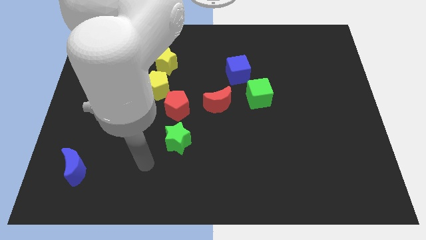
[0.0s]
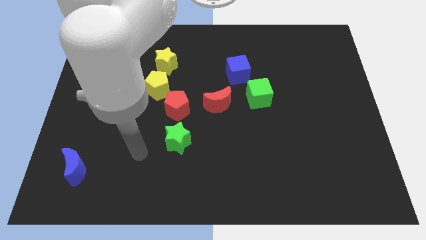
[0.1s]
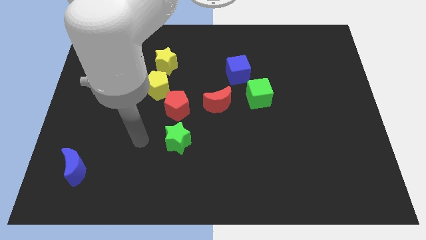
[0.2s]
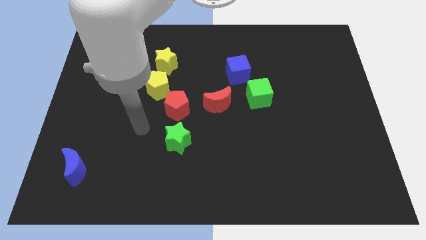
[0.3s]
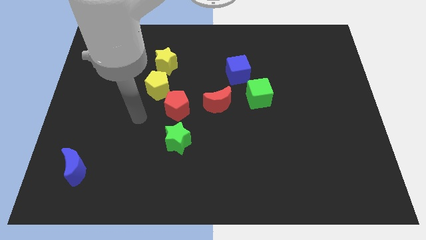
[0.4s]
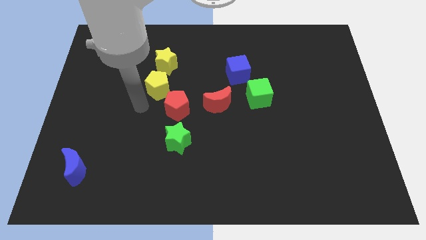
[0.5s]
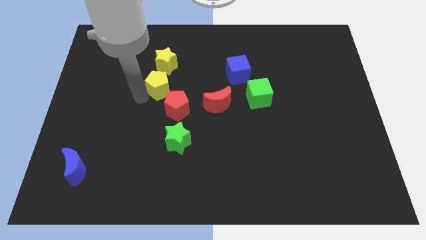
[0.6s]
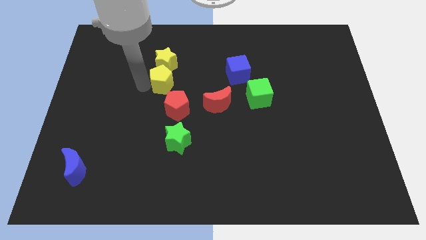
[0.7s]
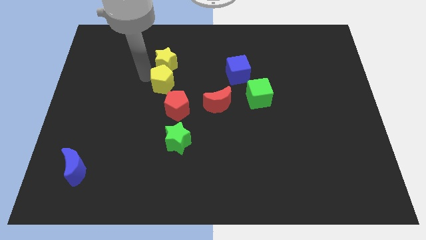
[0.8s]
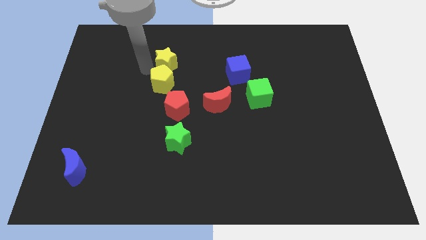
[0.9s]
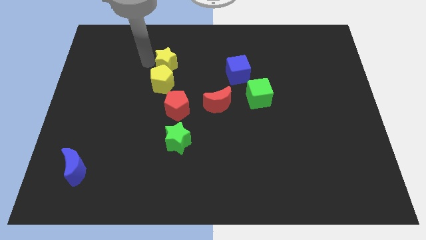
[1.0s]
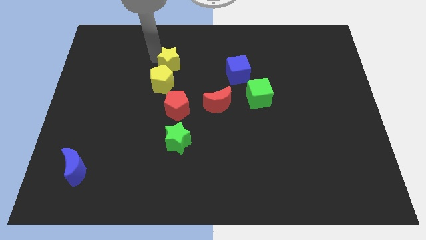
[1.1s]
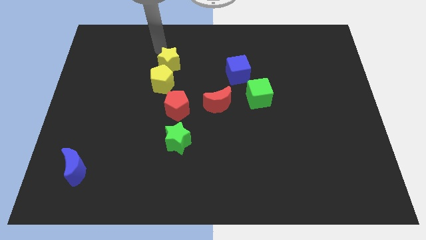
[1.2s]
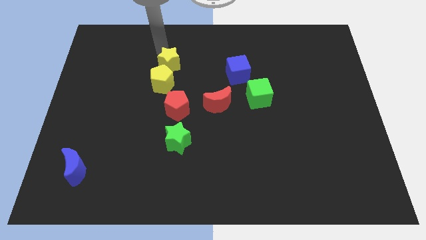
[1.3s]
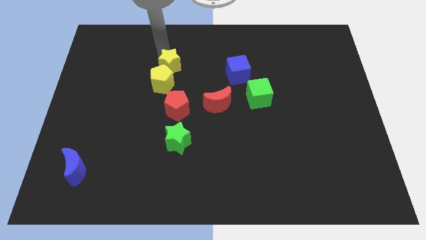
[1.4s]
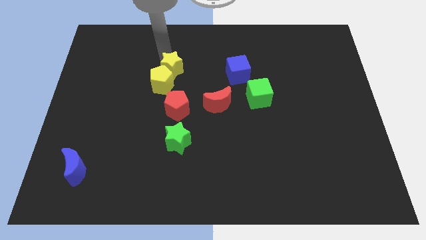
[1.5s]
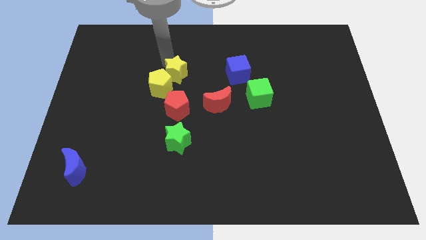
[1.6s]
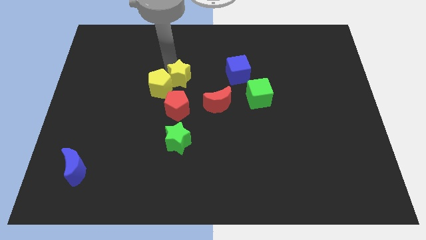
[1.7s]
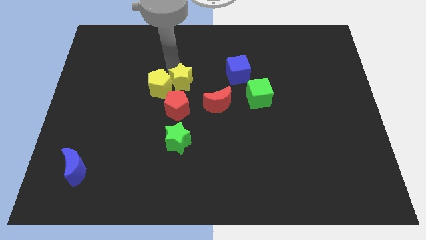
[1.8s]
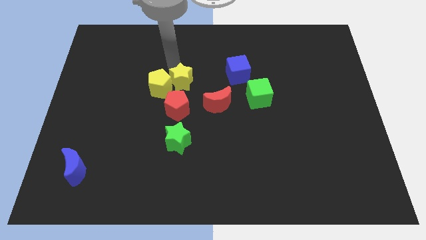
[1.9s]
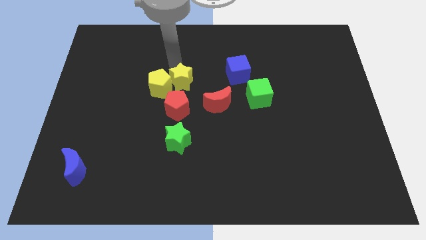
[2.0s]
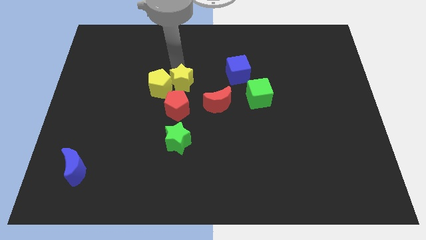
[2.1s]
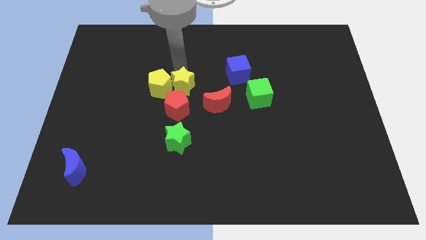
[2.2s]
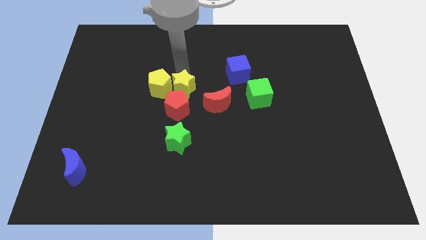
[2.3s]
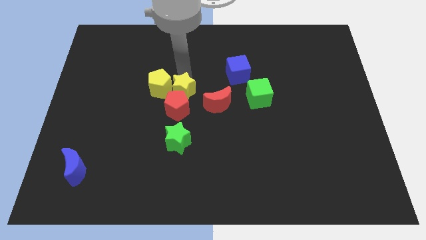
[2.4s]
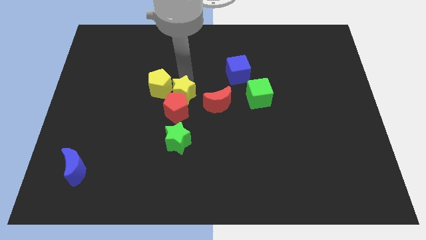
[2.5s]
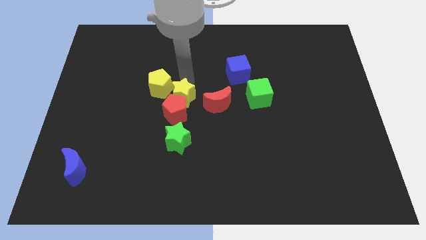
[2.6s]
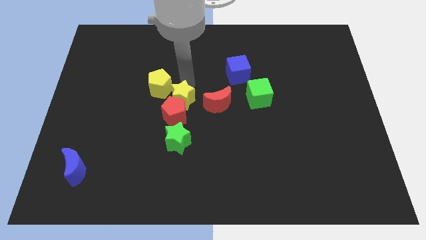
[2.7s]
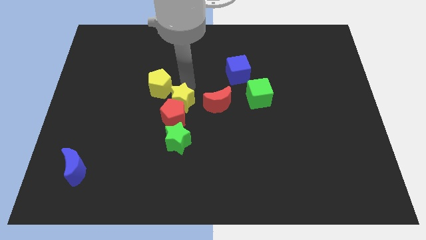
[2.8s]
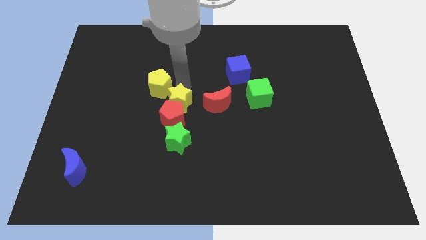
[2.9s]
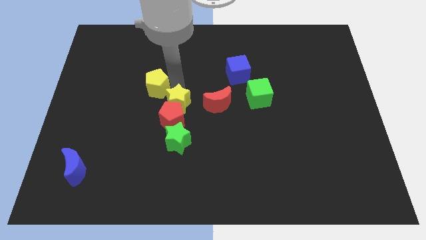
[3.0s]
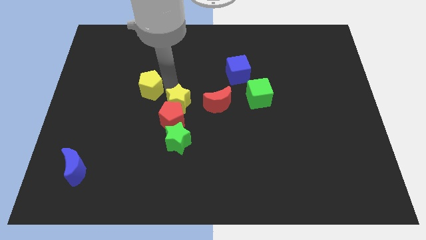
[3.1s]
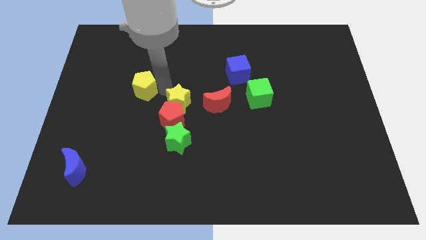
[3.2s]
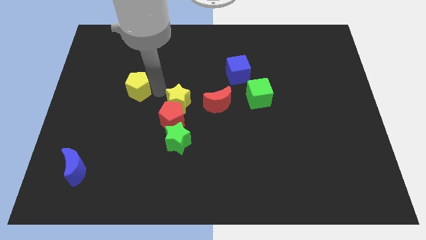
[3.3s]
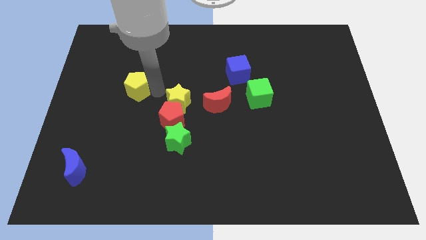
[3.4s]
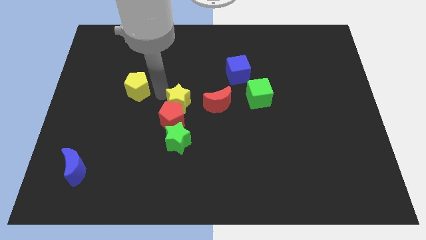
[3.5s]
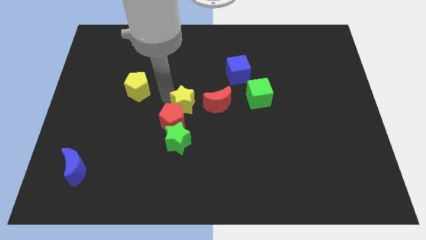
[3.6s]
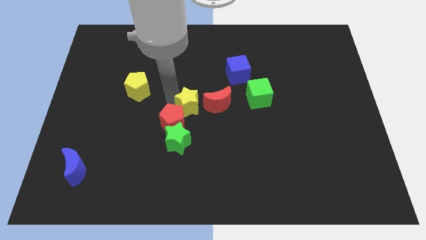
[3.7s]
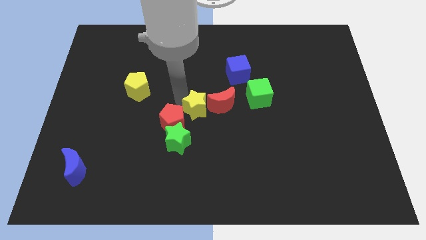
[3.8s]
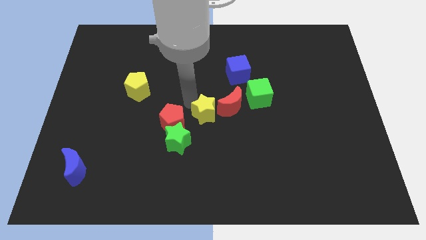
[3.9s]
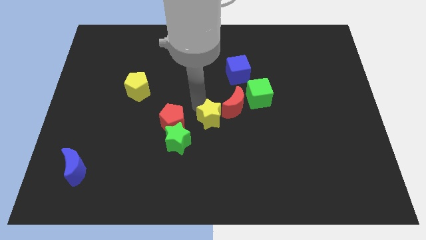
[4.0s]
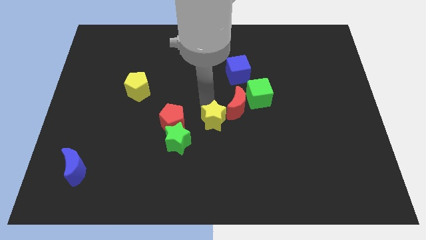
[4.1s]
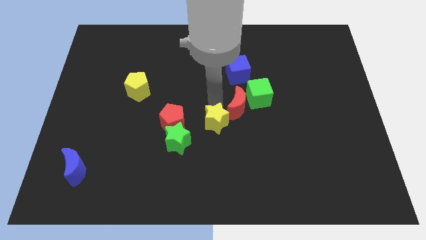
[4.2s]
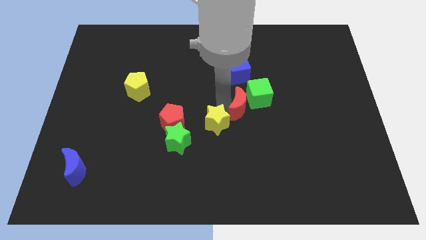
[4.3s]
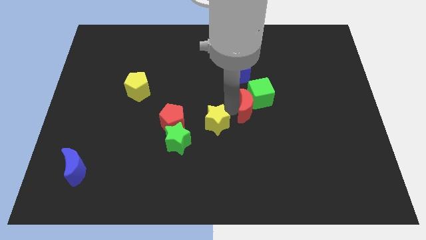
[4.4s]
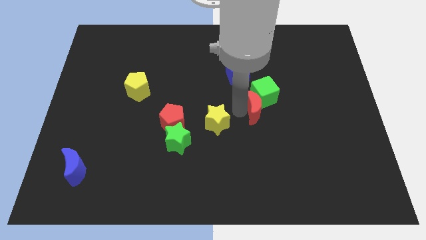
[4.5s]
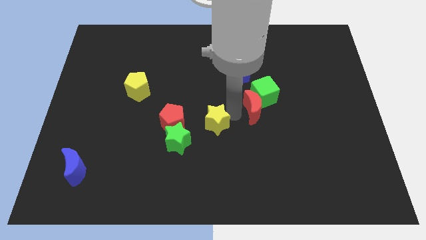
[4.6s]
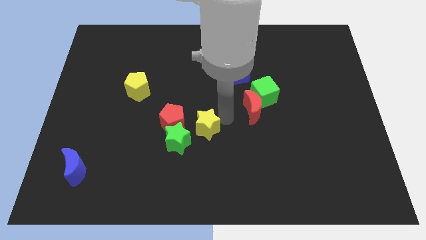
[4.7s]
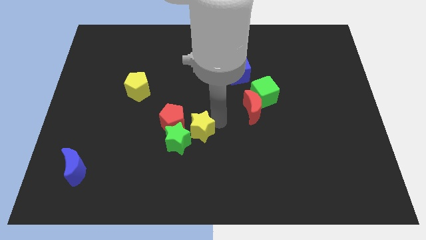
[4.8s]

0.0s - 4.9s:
slide the yellow star next to the green star

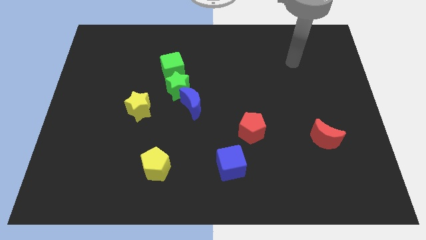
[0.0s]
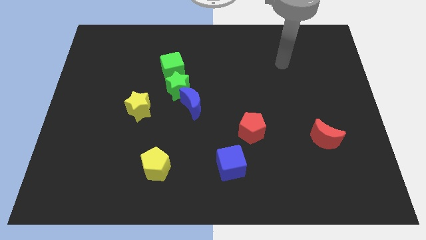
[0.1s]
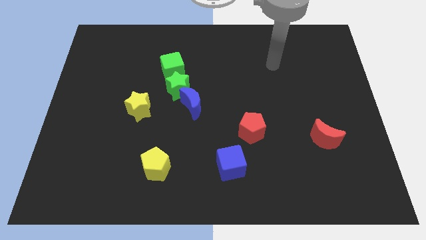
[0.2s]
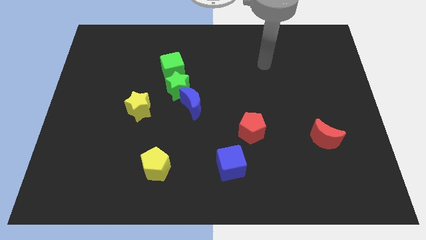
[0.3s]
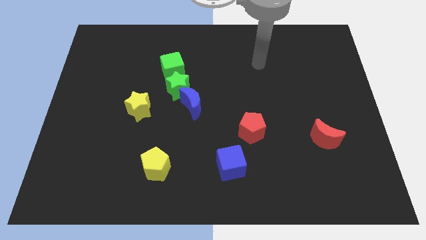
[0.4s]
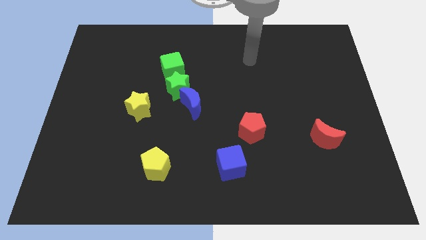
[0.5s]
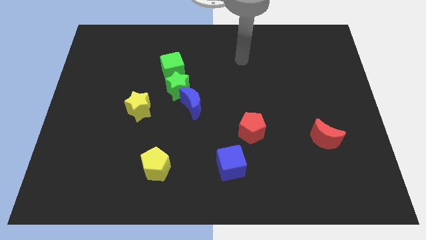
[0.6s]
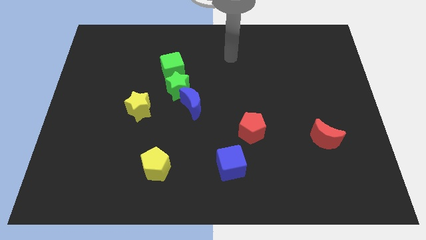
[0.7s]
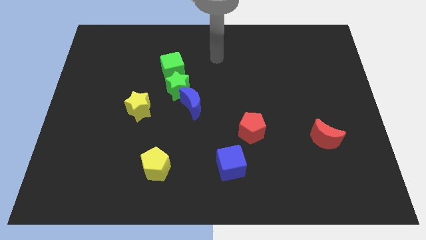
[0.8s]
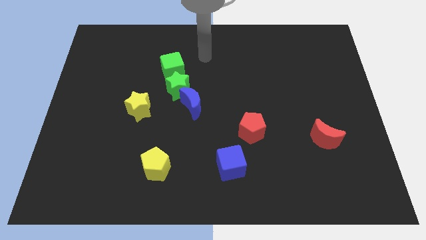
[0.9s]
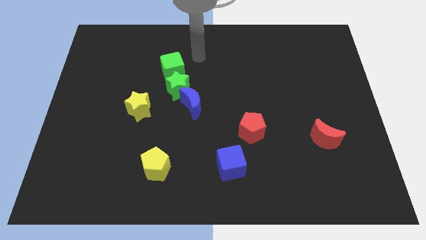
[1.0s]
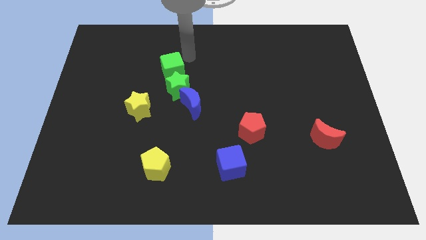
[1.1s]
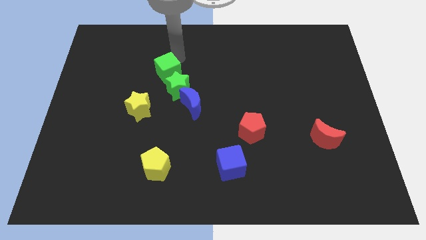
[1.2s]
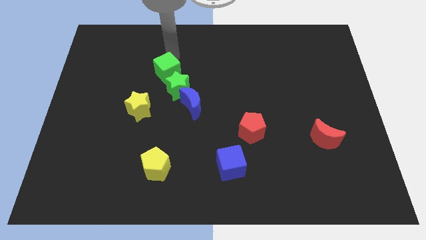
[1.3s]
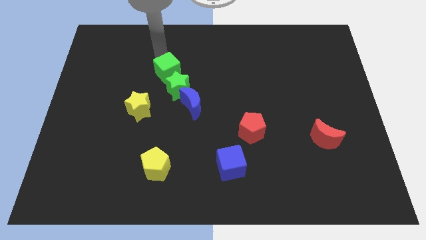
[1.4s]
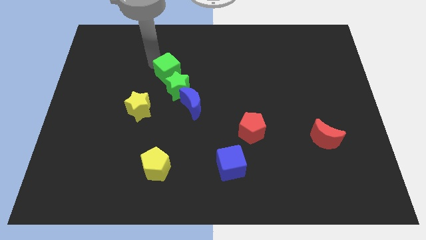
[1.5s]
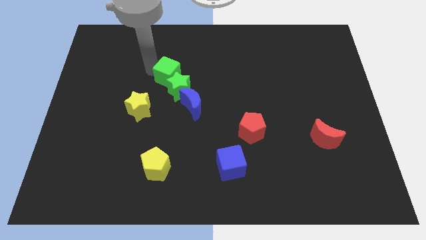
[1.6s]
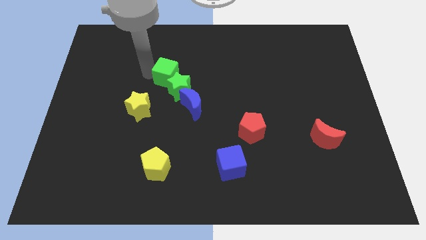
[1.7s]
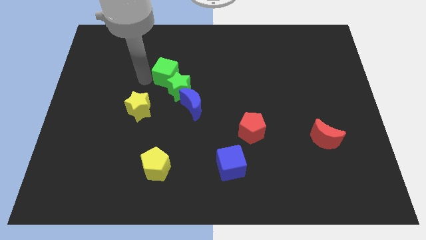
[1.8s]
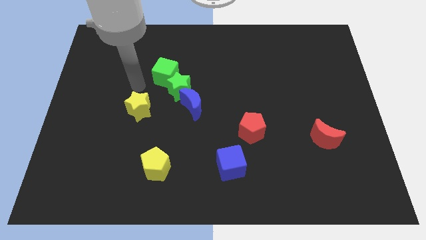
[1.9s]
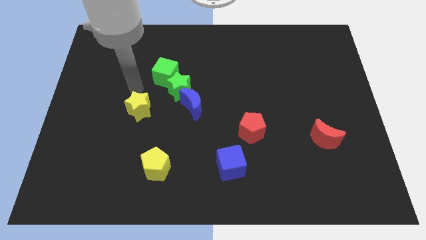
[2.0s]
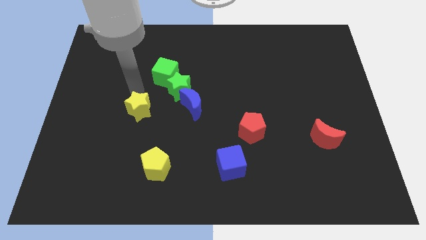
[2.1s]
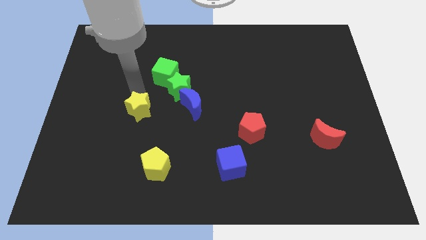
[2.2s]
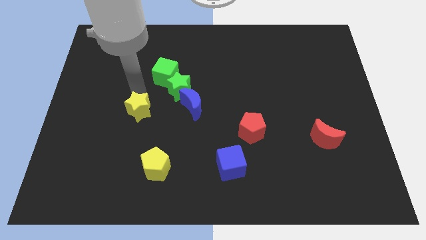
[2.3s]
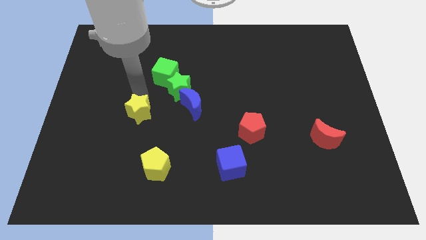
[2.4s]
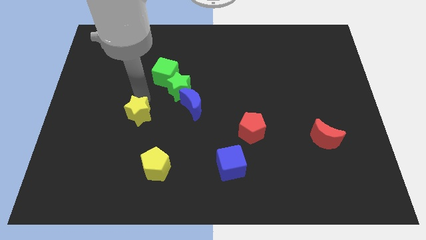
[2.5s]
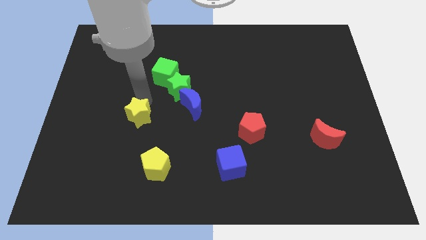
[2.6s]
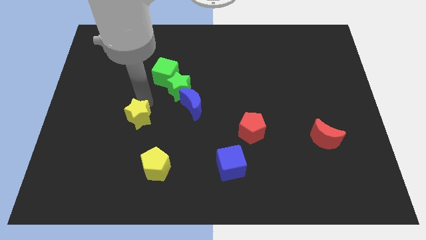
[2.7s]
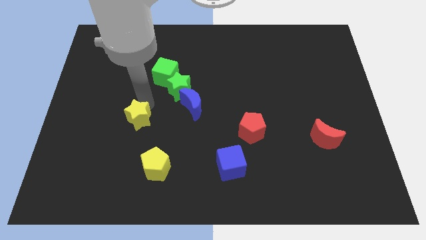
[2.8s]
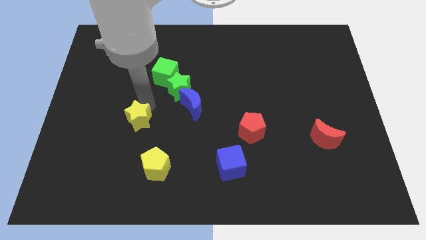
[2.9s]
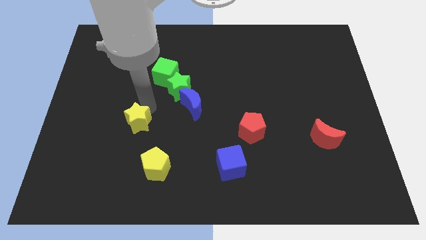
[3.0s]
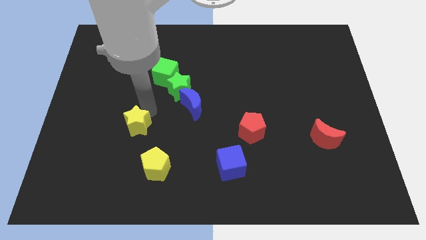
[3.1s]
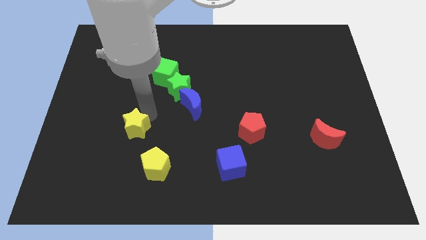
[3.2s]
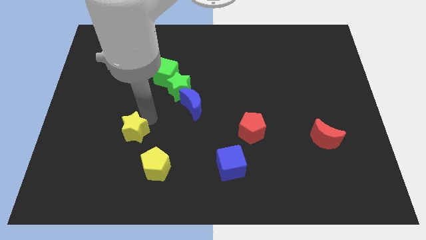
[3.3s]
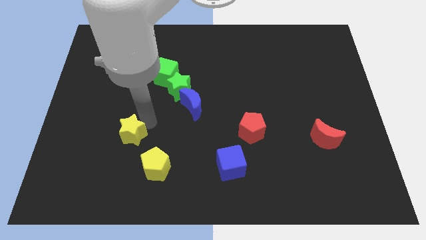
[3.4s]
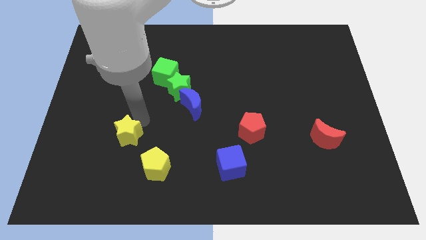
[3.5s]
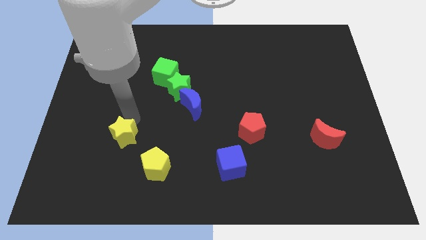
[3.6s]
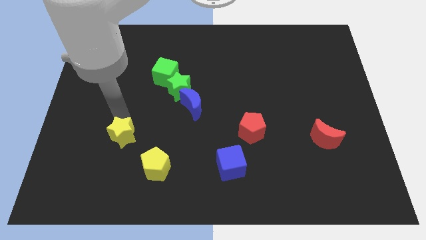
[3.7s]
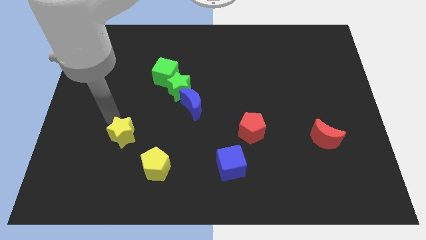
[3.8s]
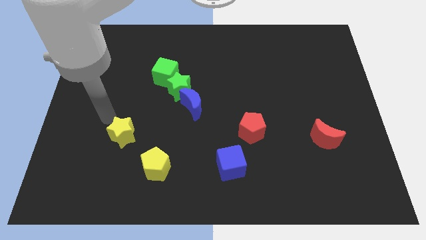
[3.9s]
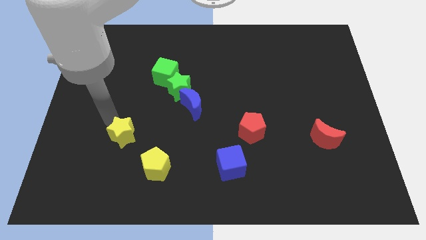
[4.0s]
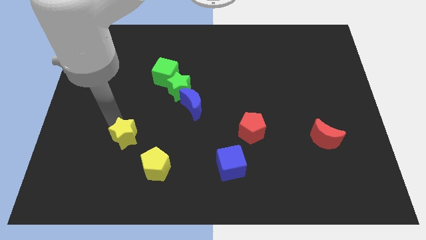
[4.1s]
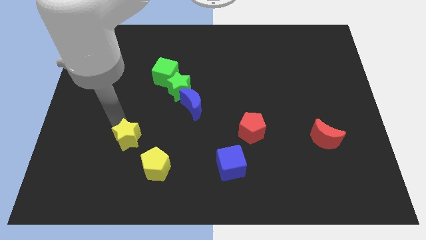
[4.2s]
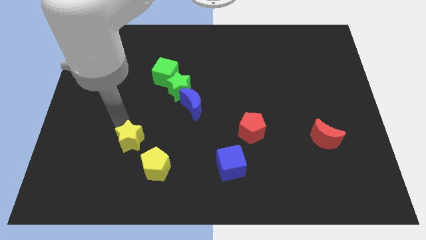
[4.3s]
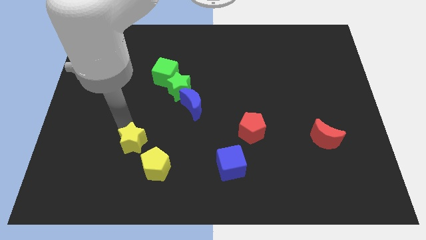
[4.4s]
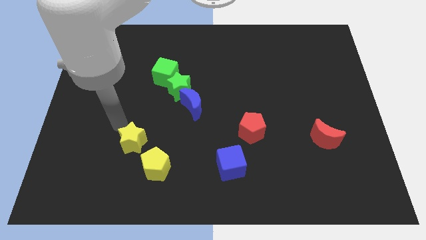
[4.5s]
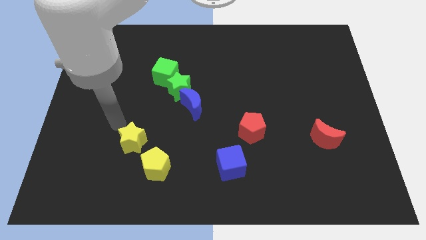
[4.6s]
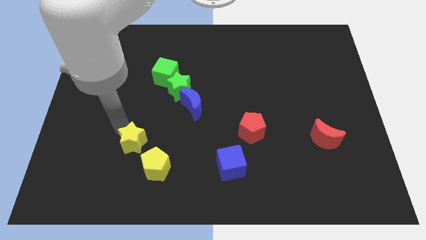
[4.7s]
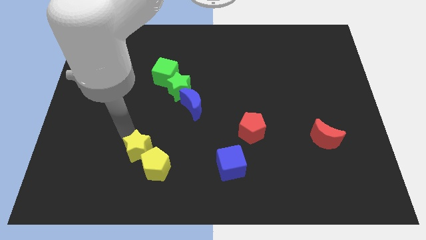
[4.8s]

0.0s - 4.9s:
push the yellow star to the yellow pentagon
